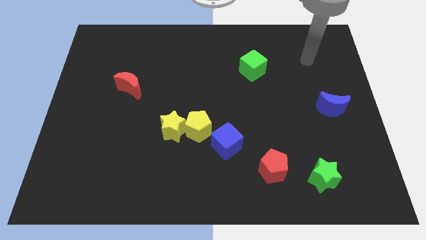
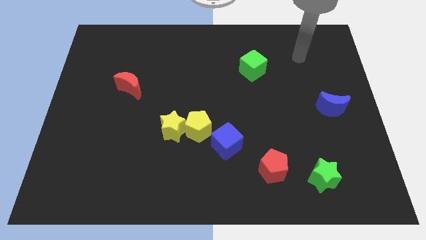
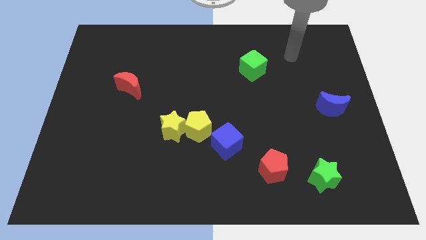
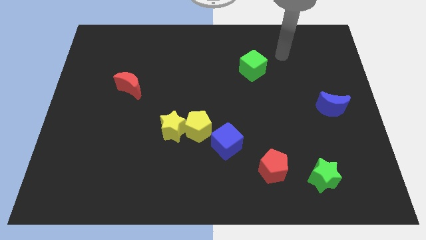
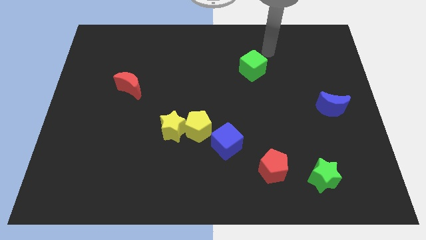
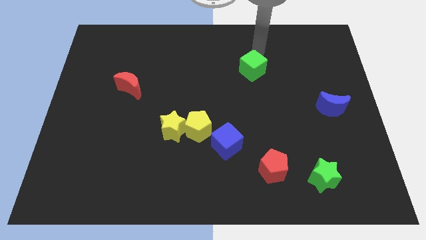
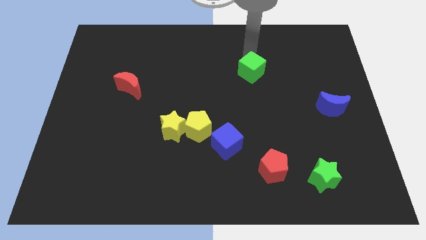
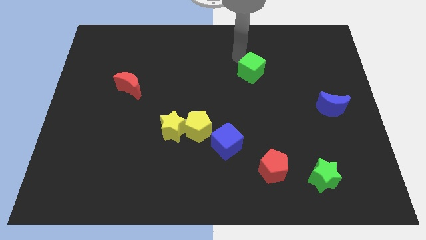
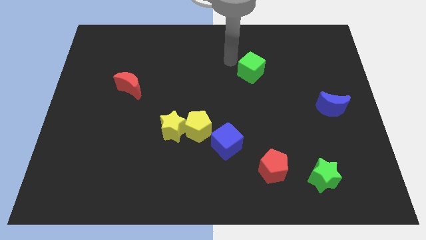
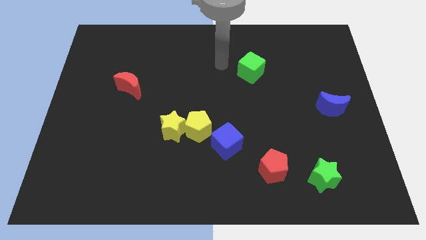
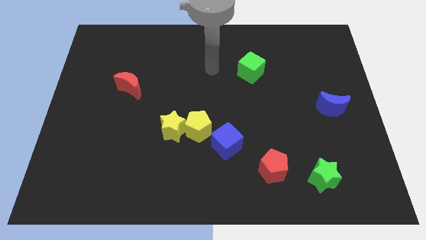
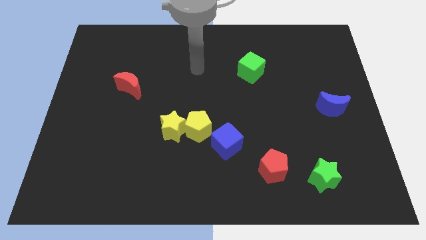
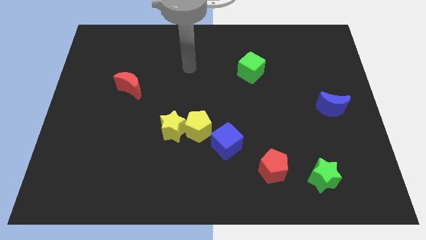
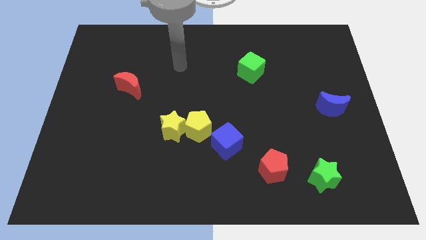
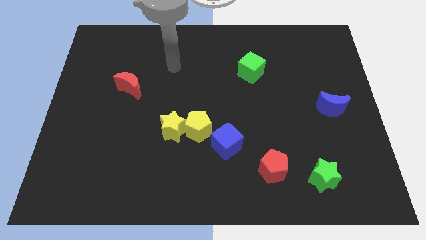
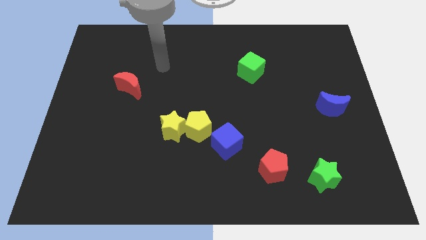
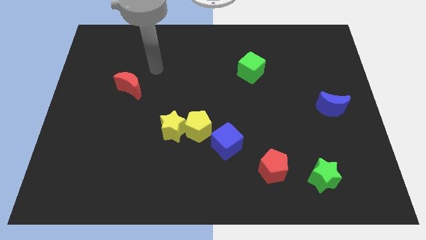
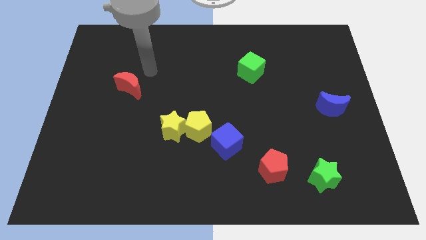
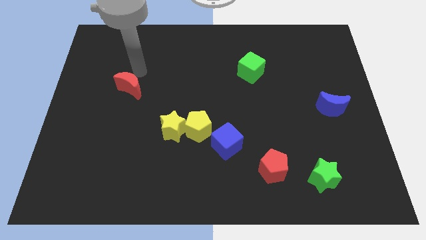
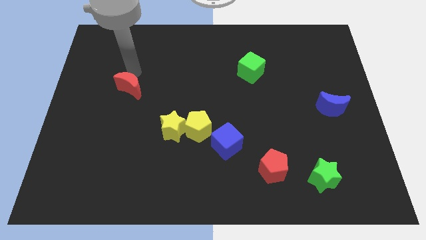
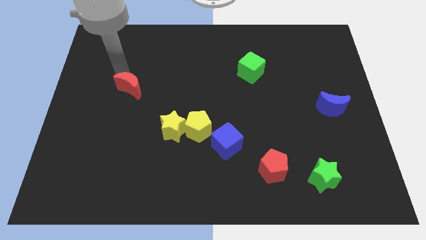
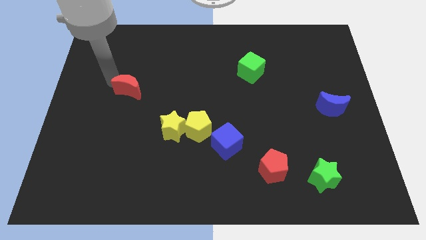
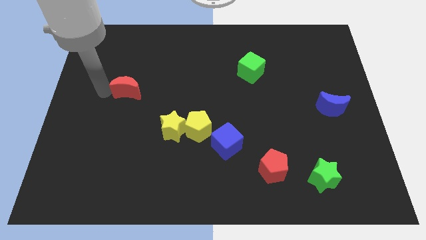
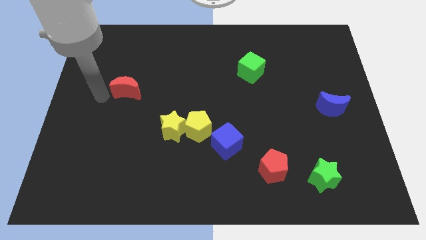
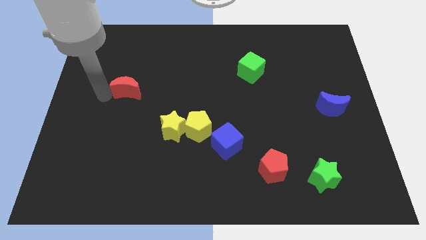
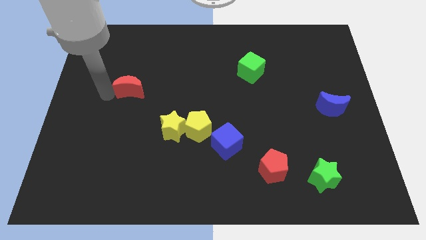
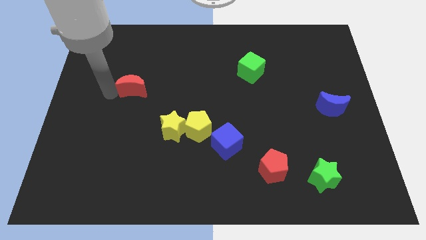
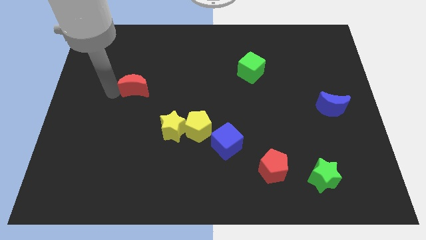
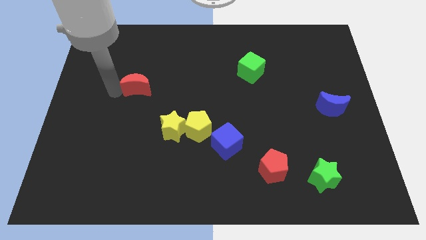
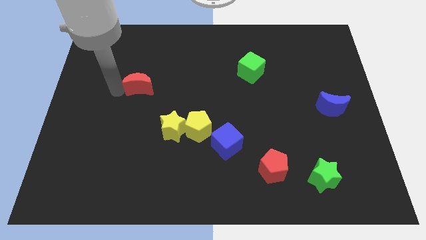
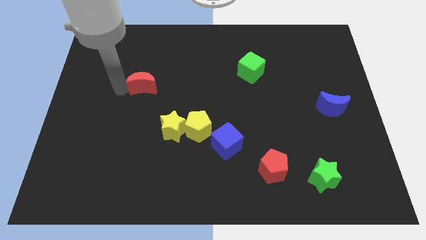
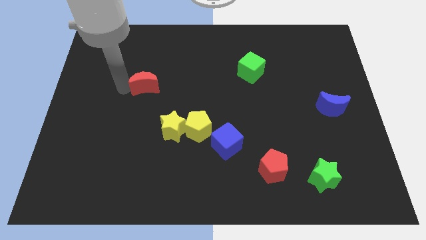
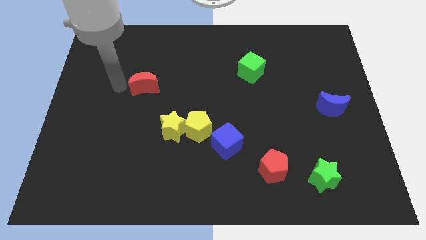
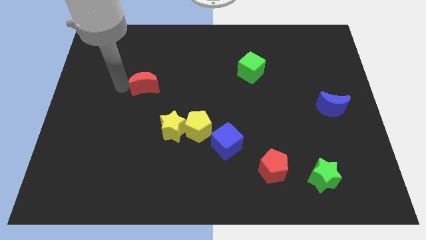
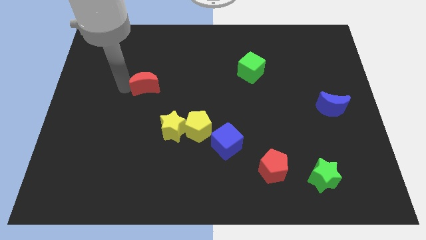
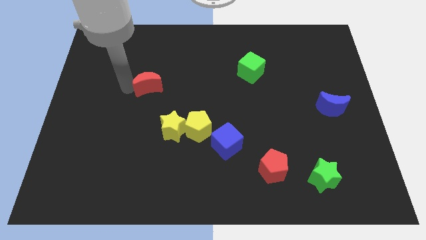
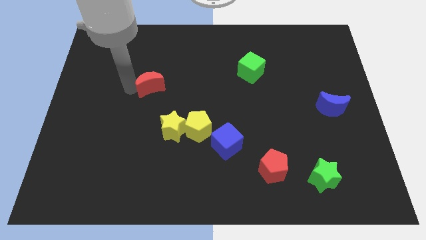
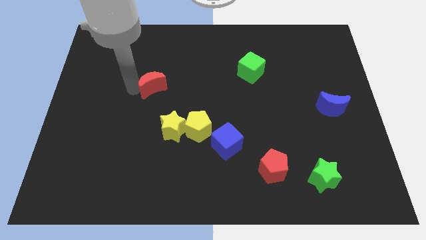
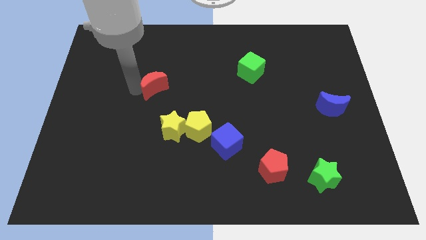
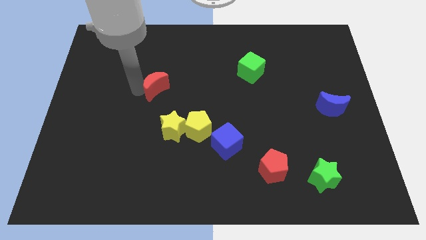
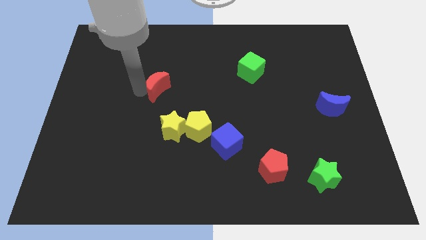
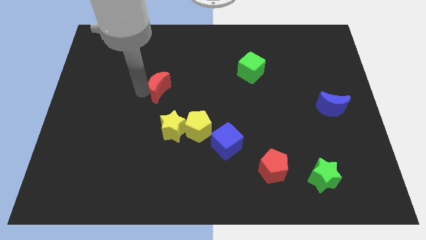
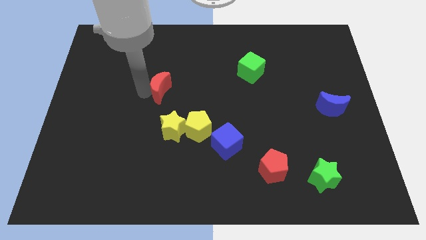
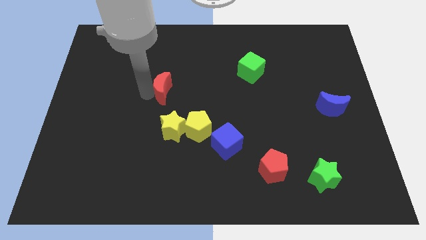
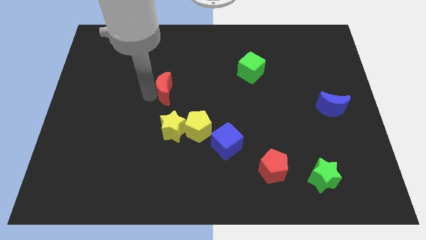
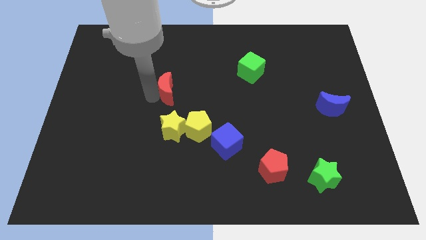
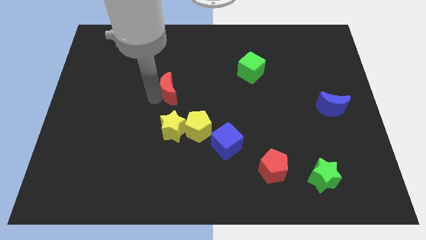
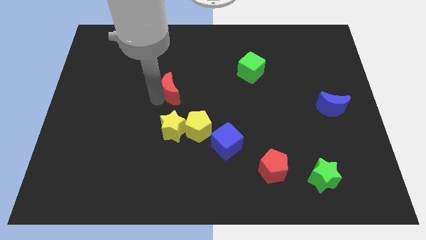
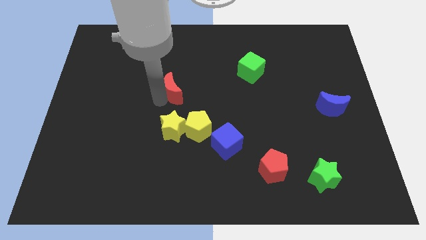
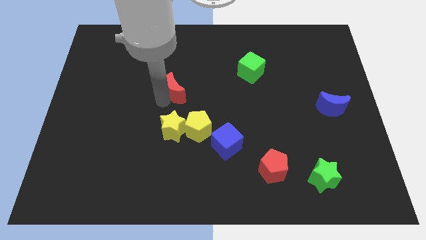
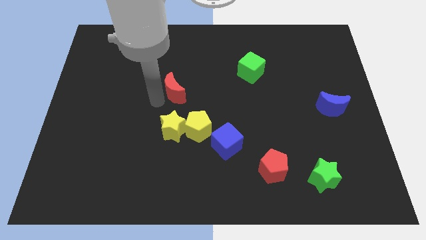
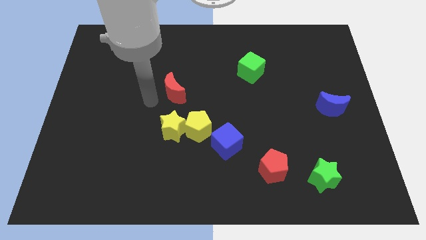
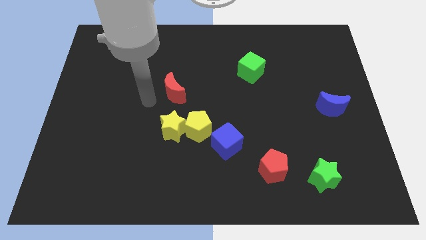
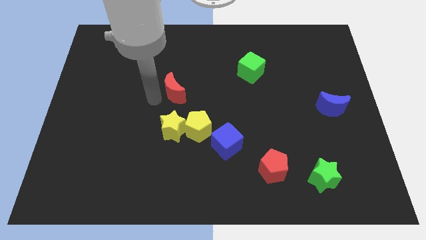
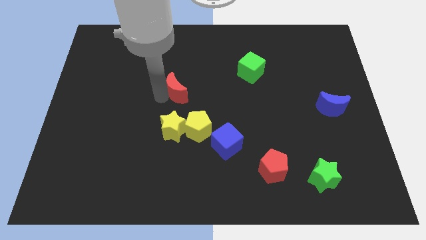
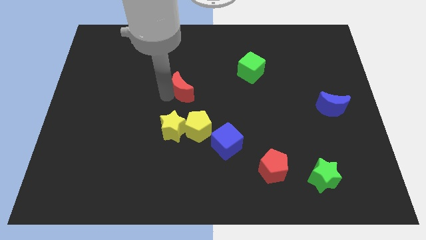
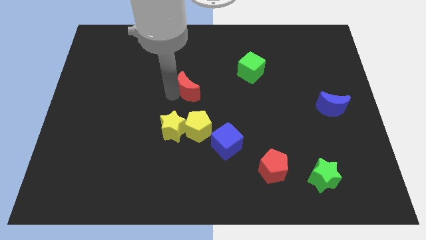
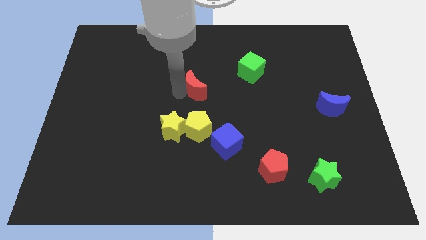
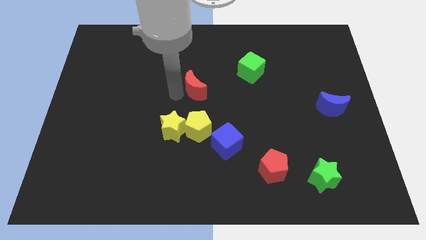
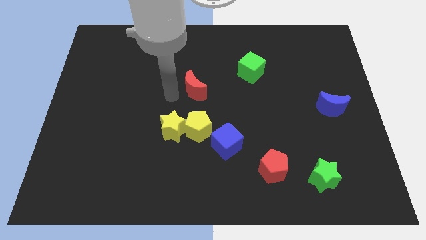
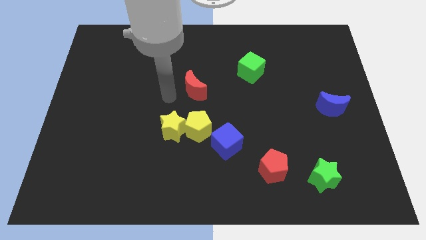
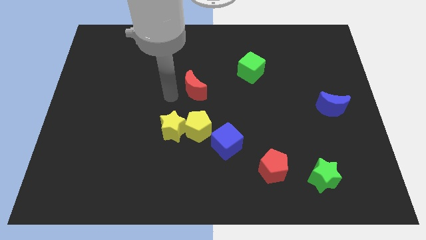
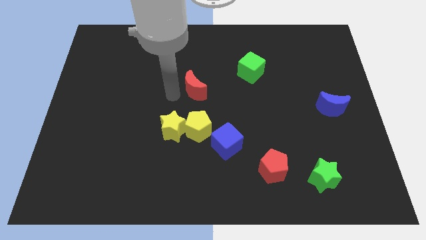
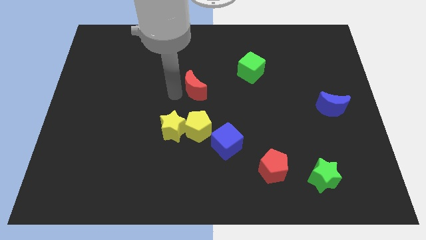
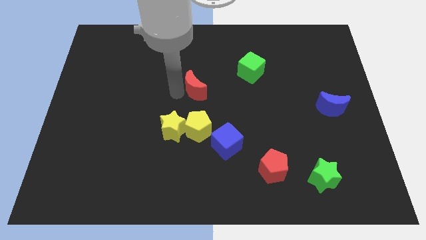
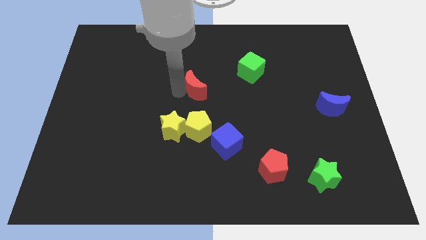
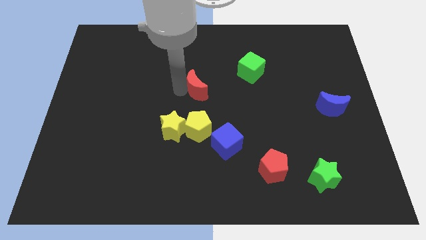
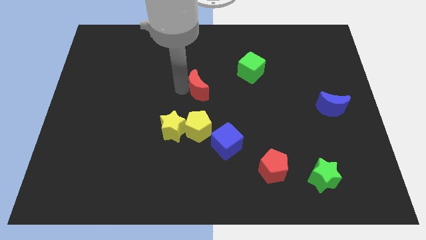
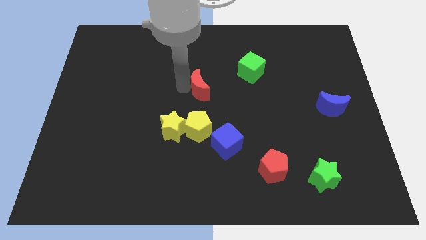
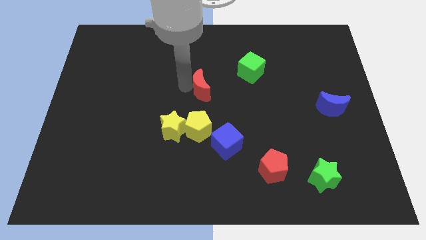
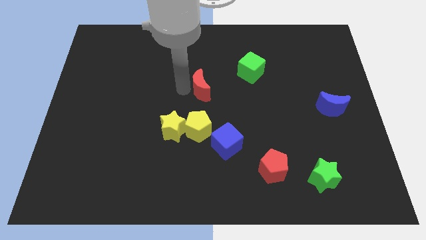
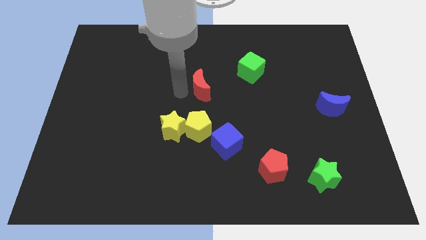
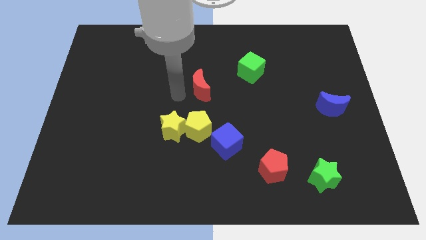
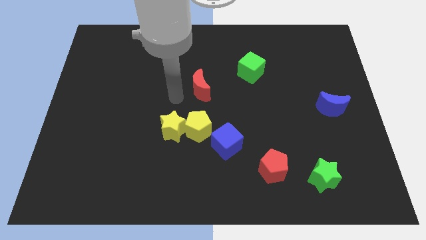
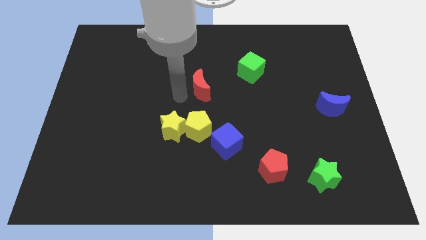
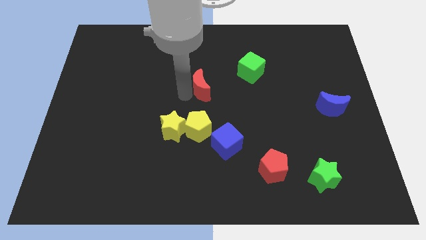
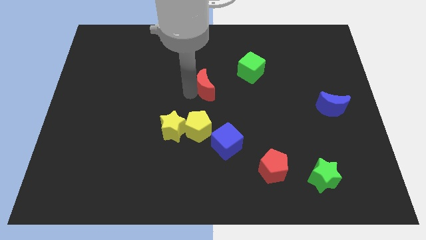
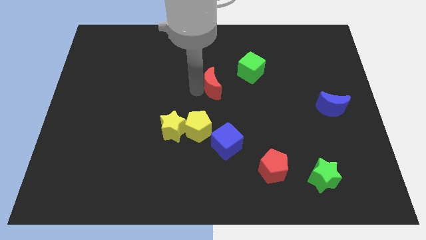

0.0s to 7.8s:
put the red moon to the bottom left of the green cube

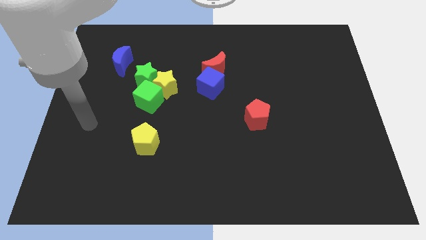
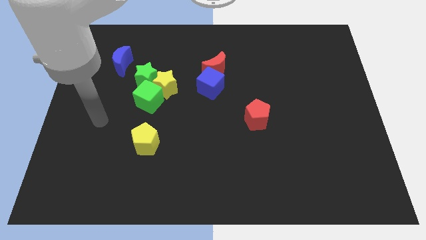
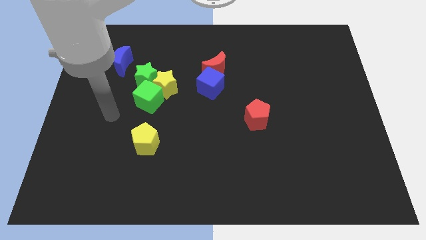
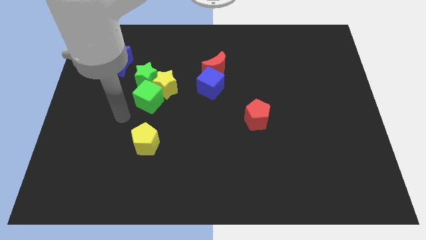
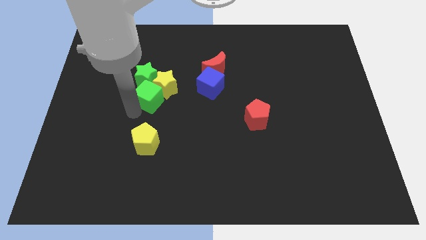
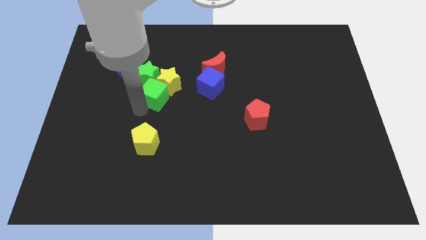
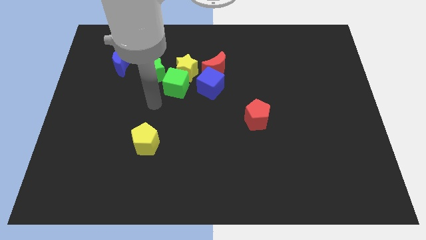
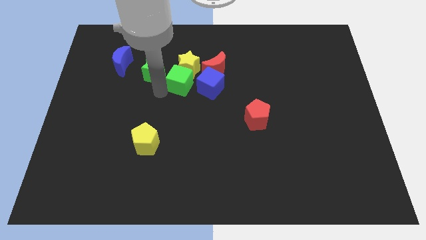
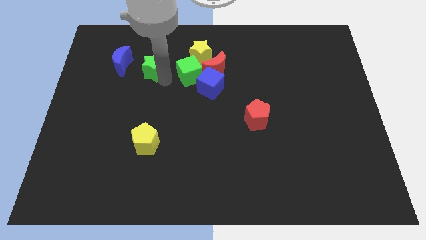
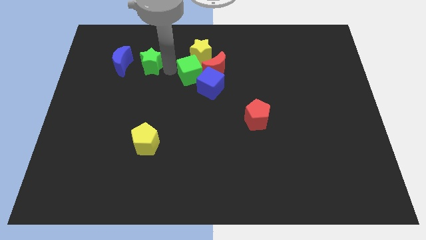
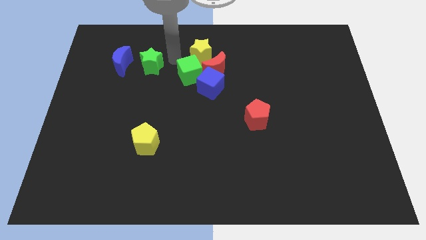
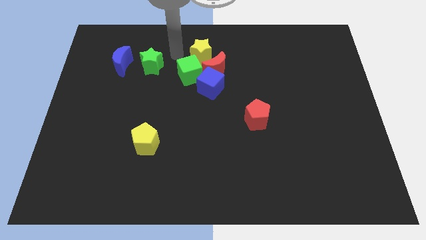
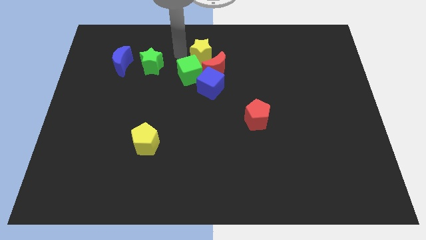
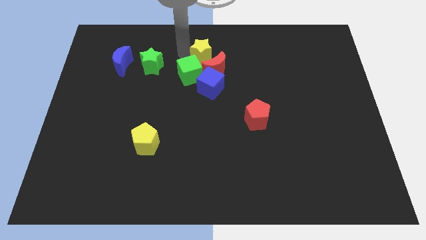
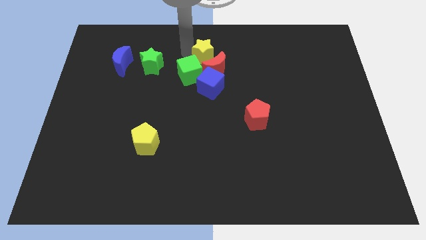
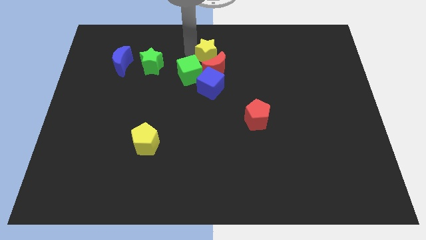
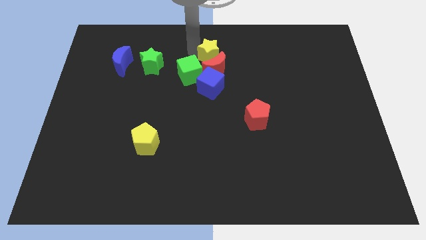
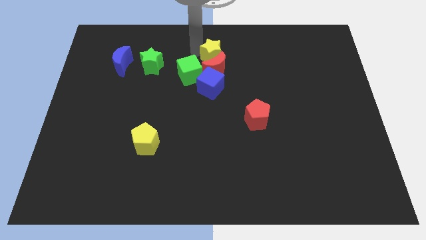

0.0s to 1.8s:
move the yellow star to the top right of the red moon
